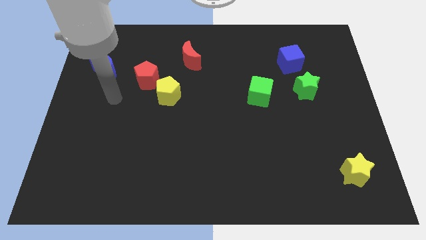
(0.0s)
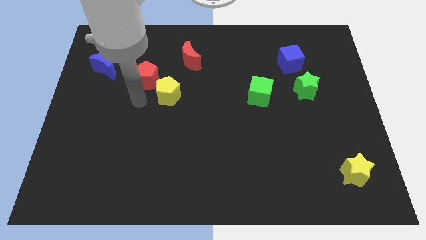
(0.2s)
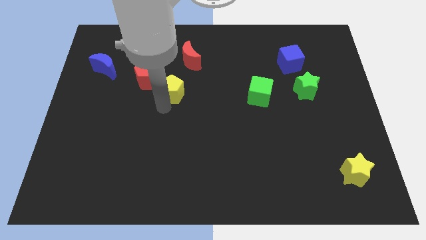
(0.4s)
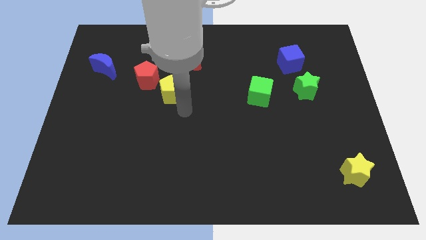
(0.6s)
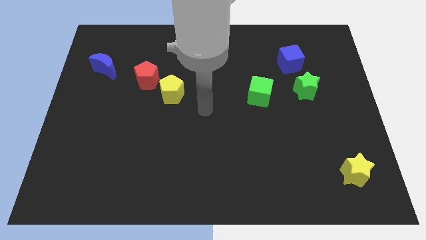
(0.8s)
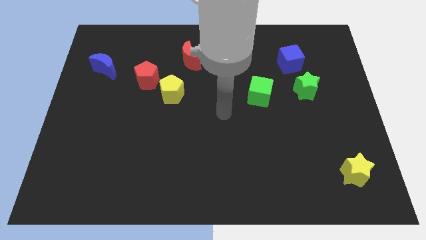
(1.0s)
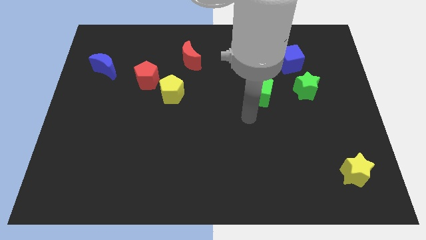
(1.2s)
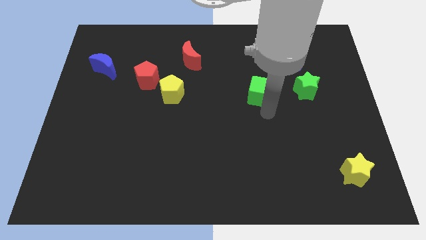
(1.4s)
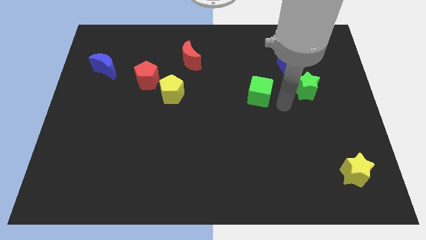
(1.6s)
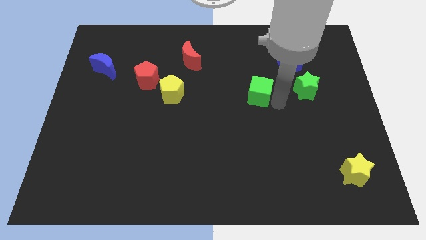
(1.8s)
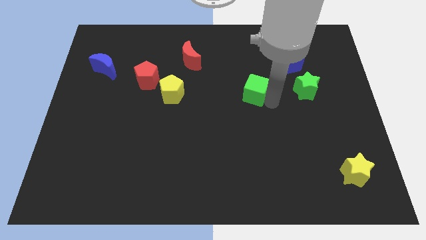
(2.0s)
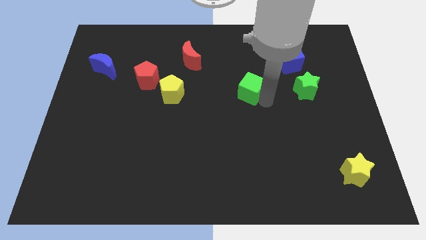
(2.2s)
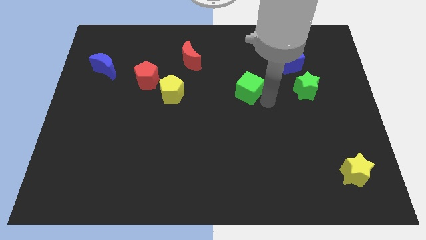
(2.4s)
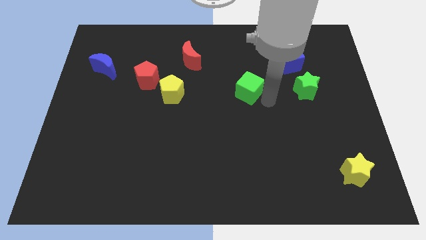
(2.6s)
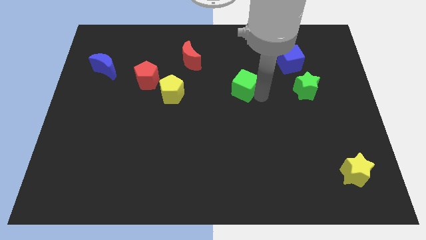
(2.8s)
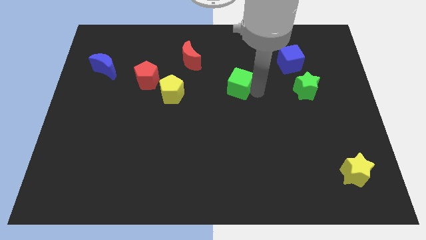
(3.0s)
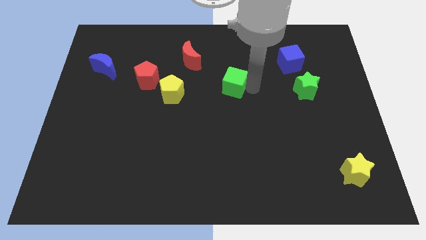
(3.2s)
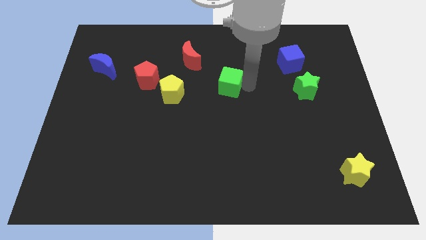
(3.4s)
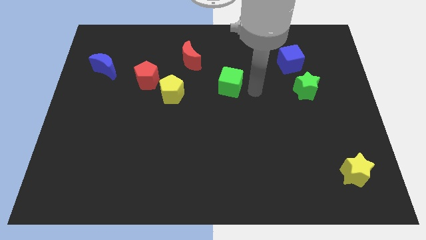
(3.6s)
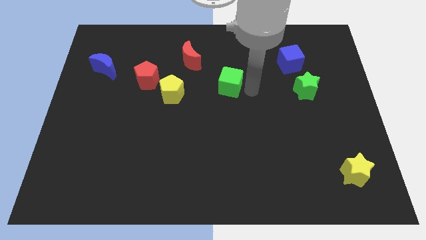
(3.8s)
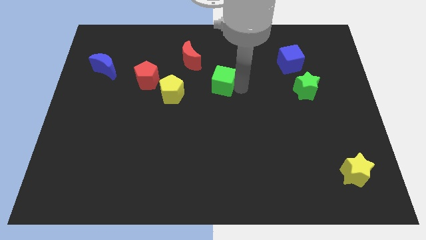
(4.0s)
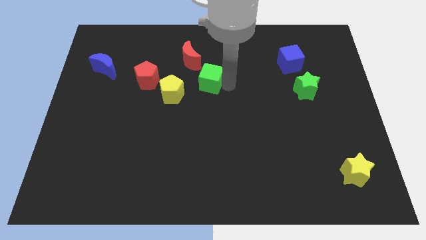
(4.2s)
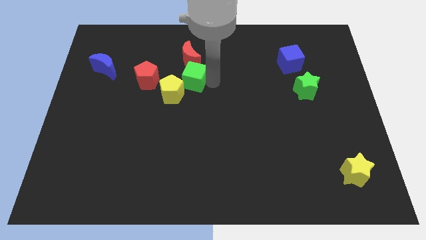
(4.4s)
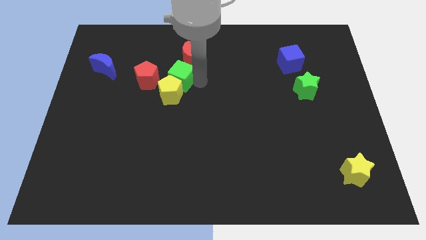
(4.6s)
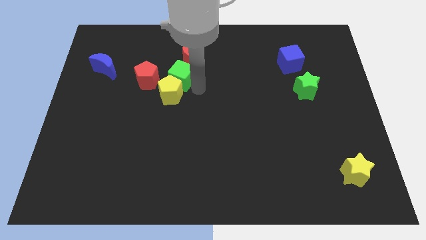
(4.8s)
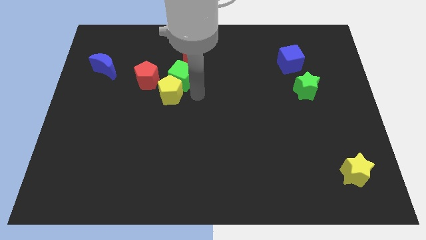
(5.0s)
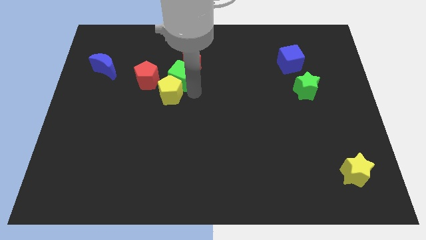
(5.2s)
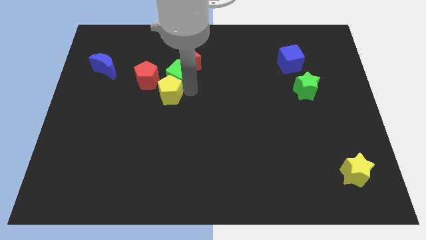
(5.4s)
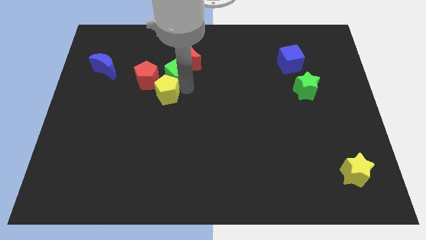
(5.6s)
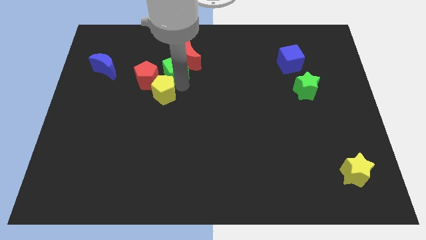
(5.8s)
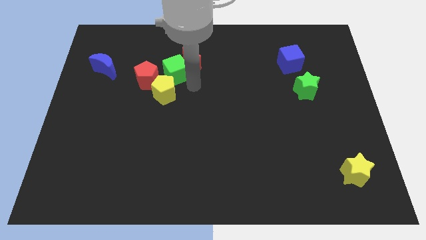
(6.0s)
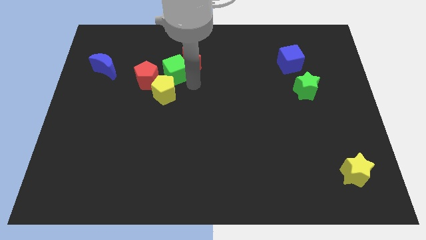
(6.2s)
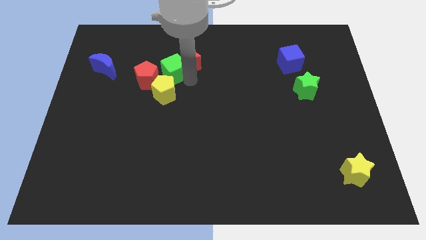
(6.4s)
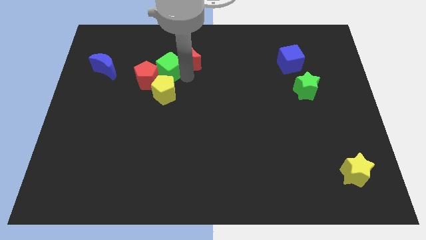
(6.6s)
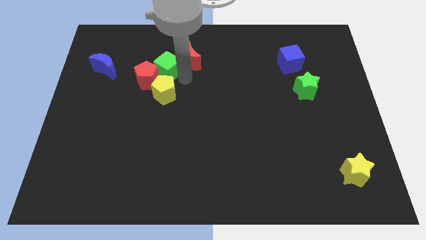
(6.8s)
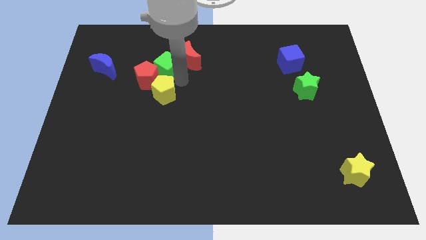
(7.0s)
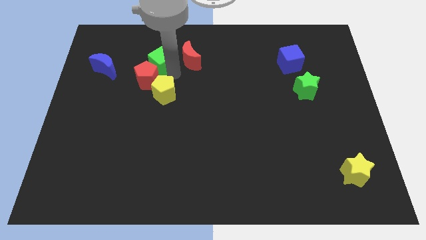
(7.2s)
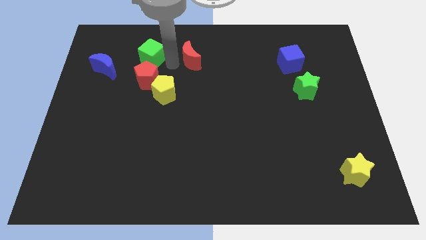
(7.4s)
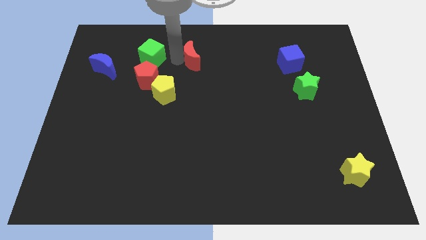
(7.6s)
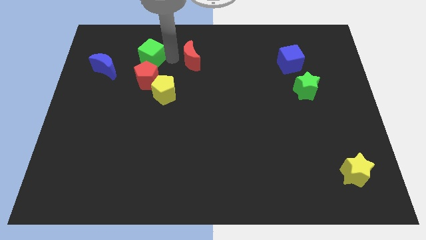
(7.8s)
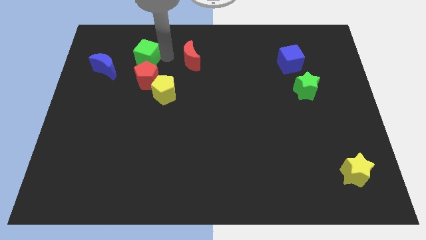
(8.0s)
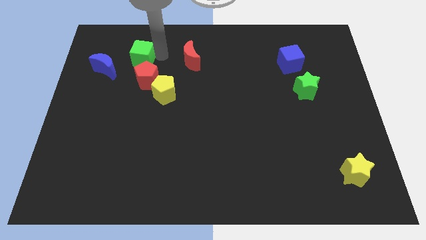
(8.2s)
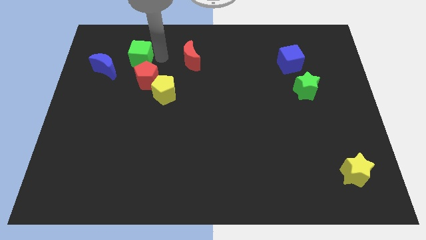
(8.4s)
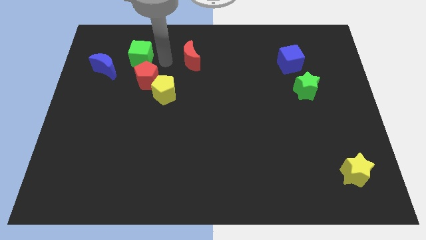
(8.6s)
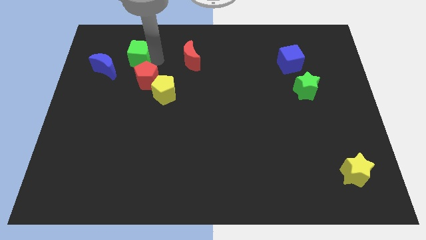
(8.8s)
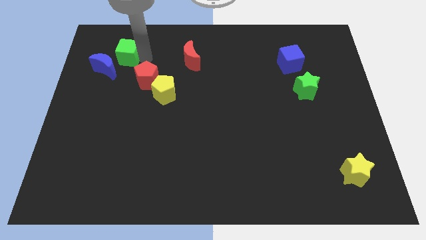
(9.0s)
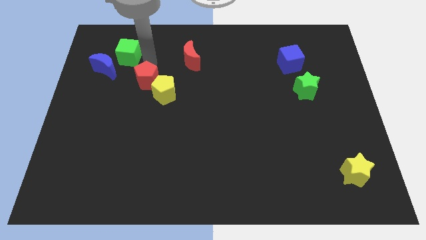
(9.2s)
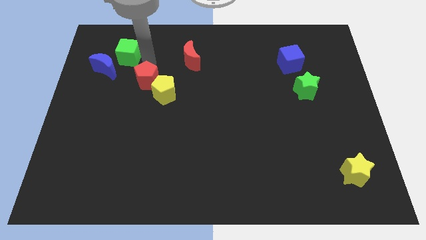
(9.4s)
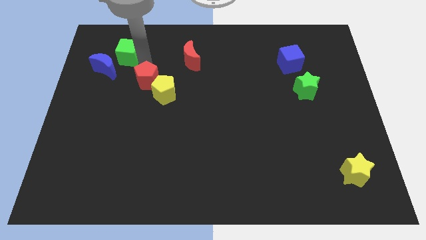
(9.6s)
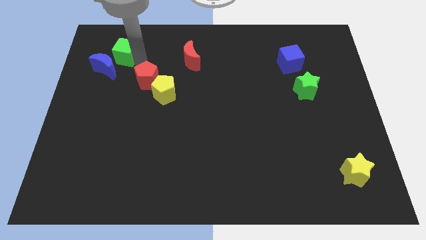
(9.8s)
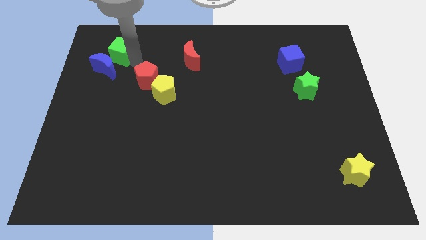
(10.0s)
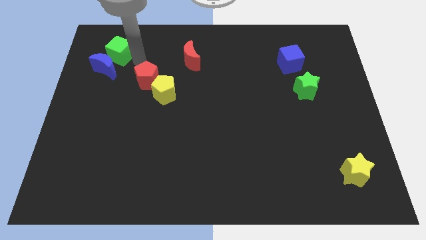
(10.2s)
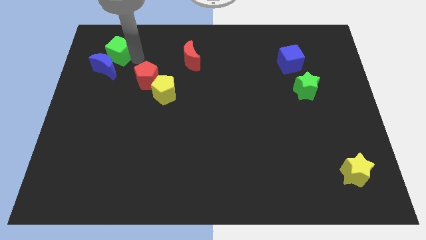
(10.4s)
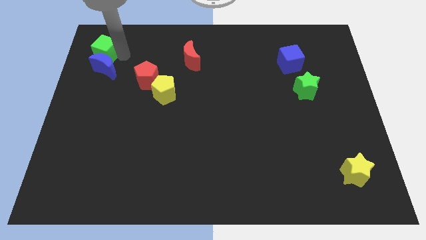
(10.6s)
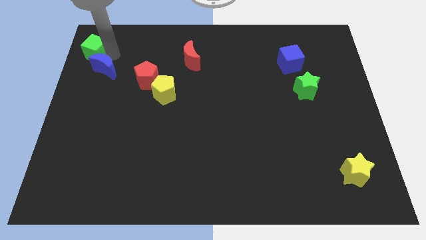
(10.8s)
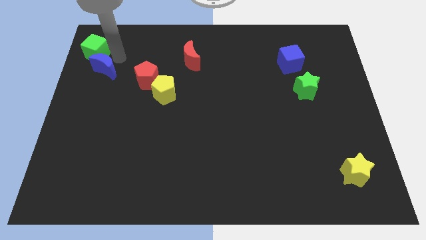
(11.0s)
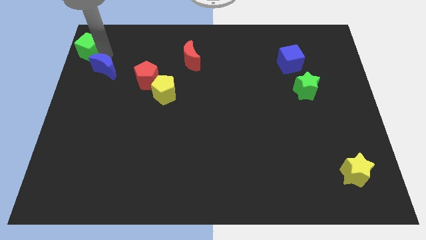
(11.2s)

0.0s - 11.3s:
move the green cube to the top left corner

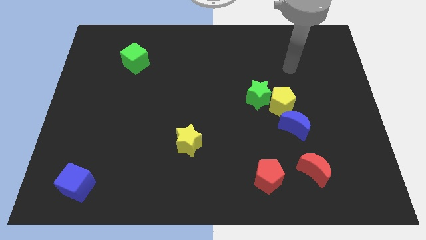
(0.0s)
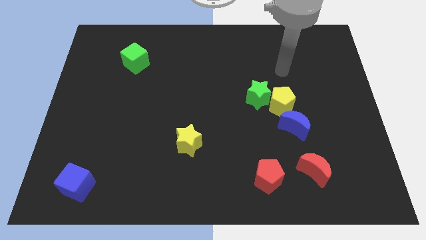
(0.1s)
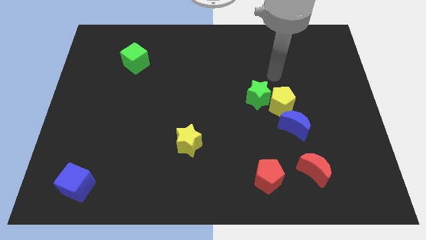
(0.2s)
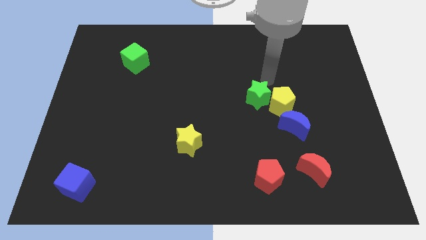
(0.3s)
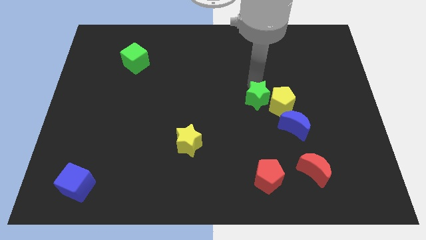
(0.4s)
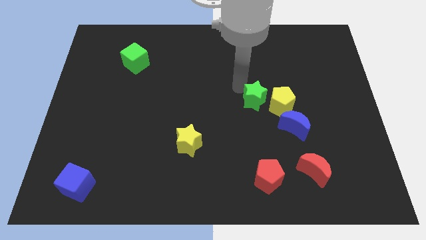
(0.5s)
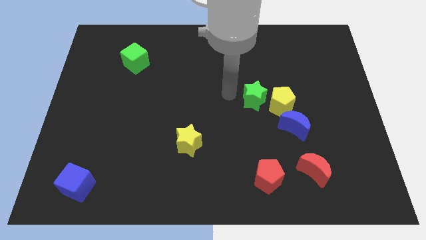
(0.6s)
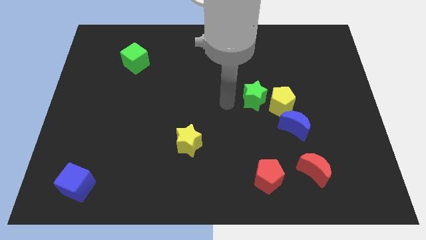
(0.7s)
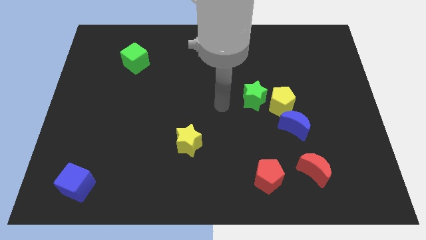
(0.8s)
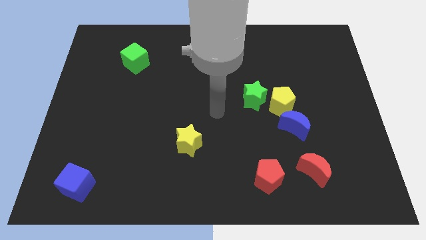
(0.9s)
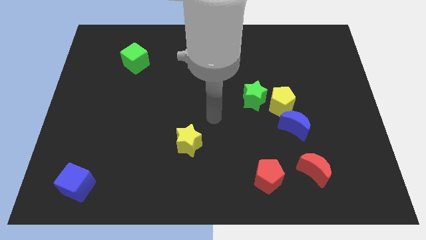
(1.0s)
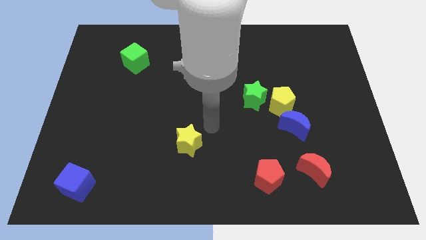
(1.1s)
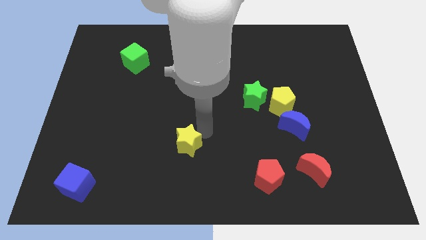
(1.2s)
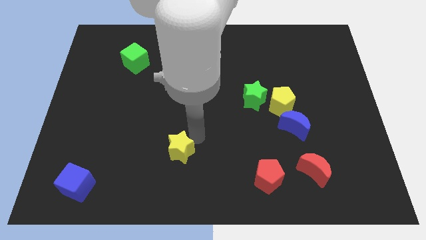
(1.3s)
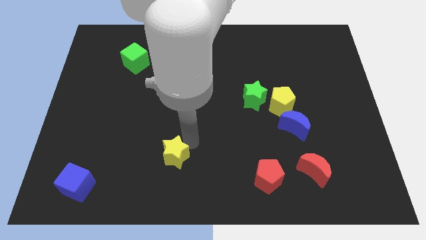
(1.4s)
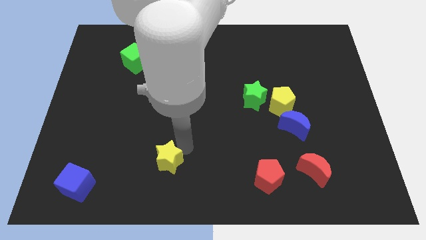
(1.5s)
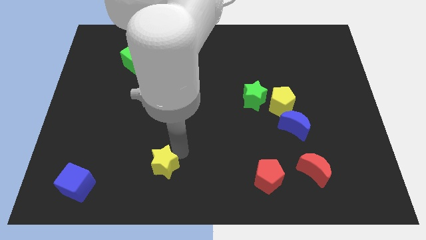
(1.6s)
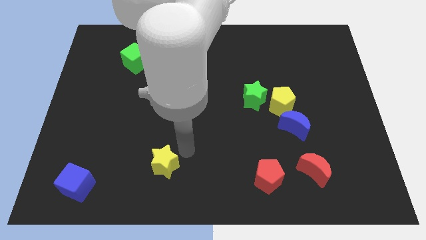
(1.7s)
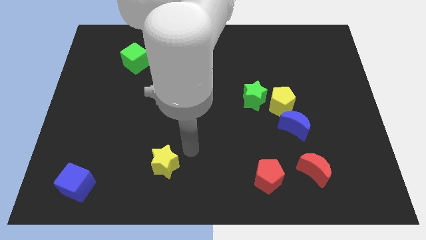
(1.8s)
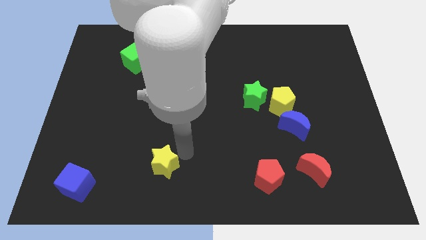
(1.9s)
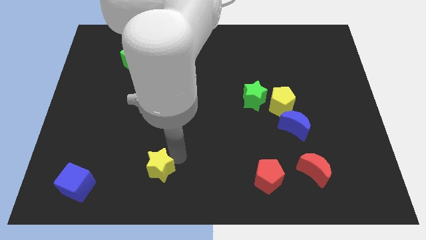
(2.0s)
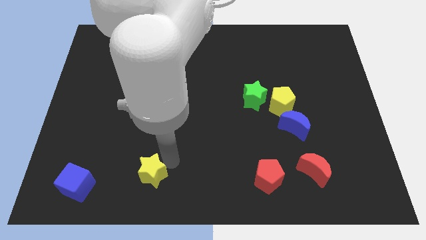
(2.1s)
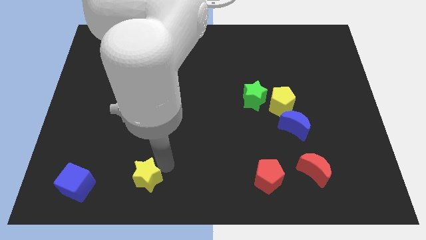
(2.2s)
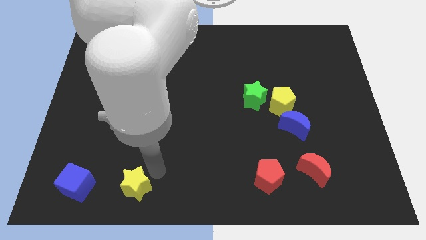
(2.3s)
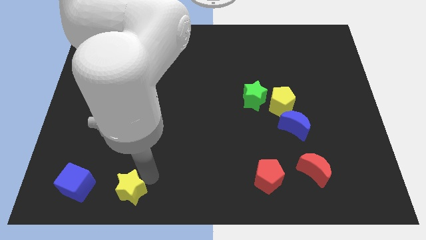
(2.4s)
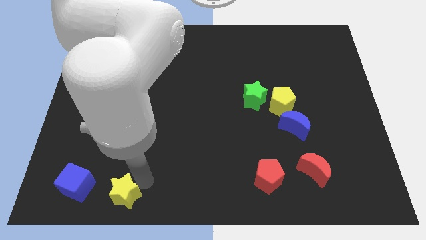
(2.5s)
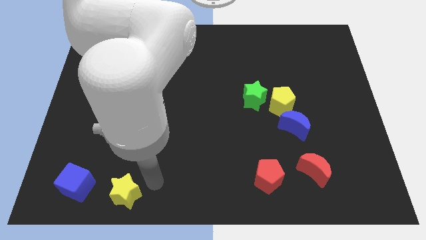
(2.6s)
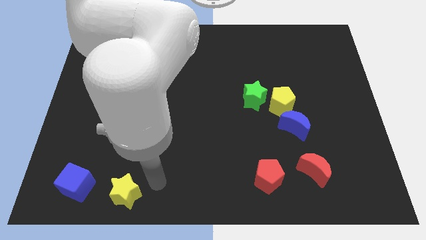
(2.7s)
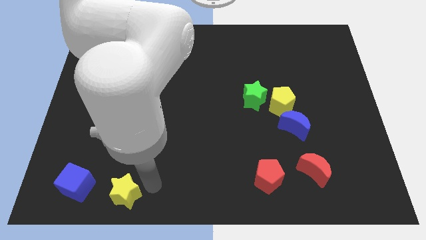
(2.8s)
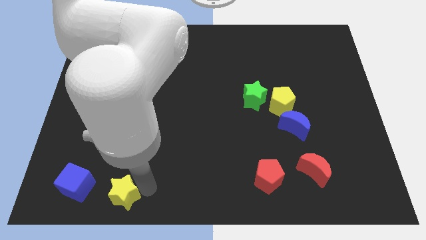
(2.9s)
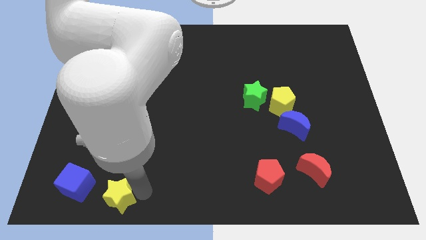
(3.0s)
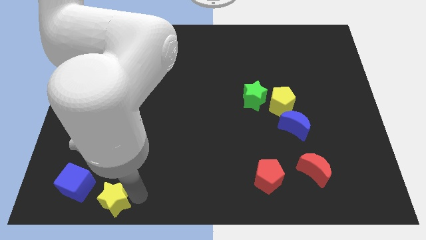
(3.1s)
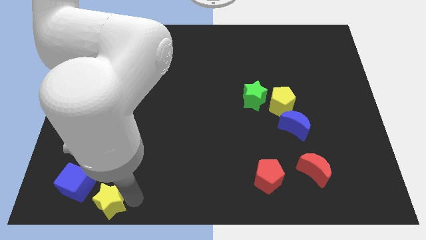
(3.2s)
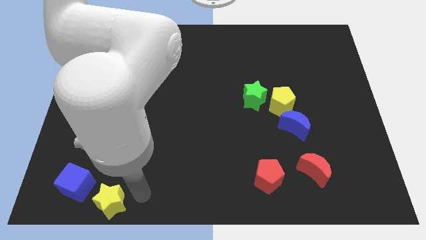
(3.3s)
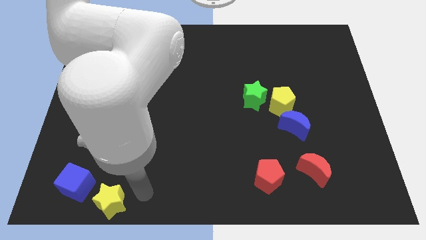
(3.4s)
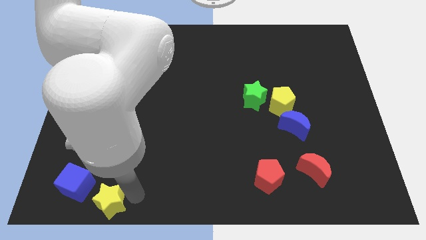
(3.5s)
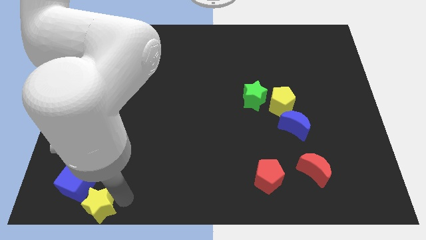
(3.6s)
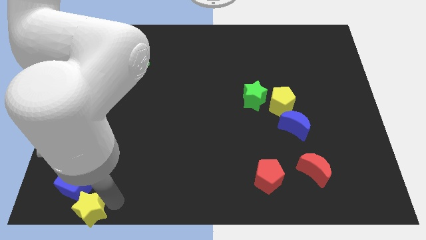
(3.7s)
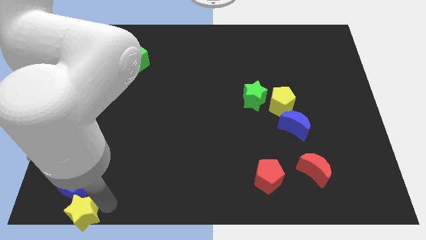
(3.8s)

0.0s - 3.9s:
slide the yellow star to the lower left corner
